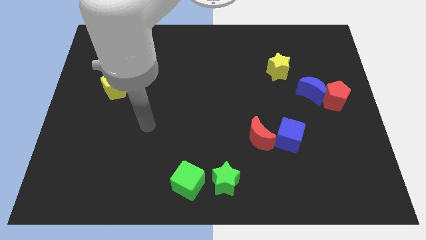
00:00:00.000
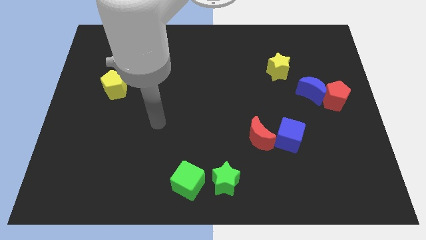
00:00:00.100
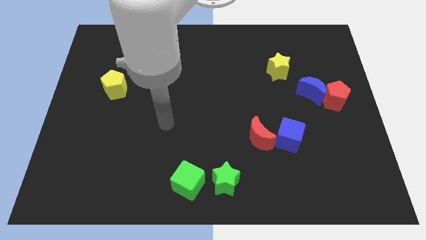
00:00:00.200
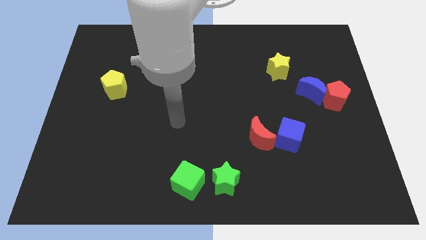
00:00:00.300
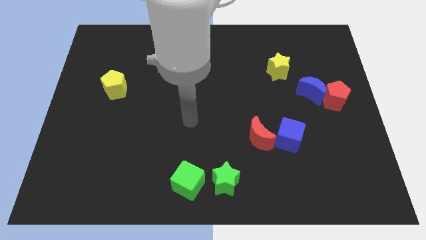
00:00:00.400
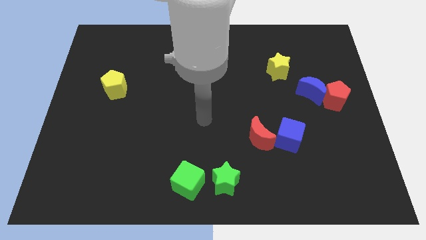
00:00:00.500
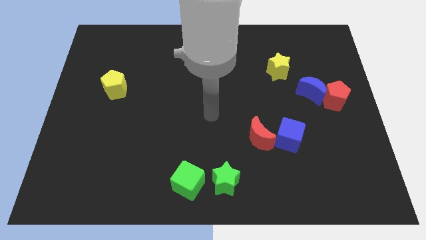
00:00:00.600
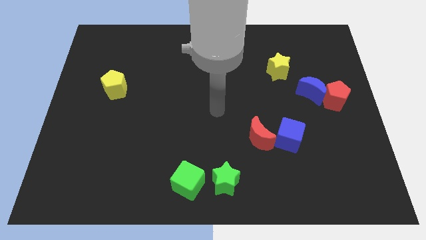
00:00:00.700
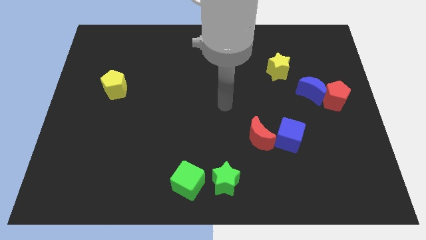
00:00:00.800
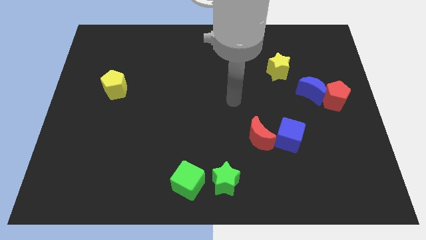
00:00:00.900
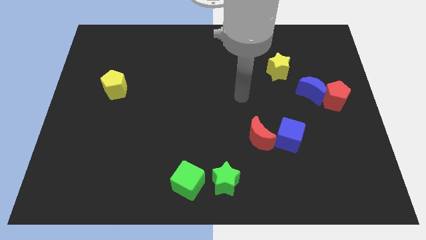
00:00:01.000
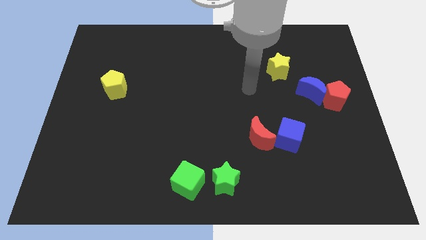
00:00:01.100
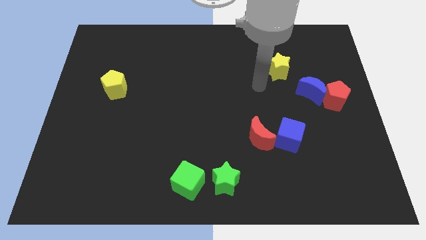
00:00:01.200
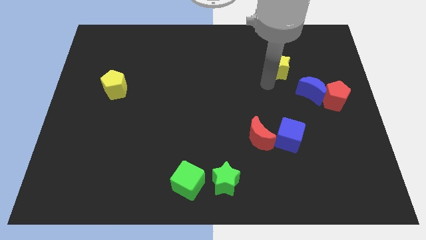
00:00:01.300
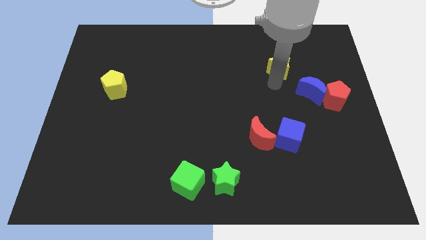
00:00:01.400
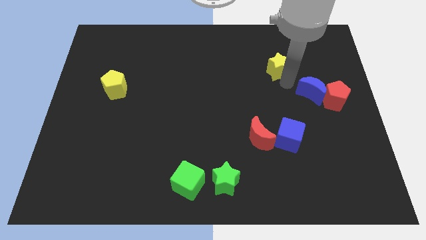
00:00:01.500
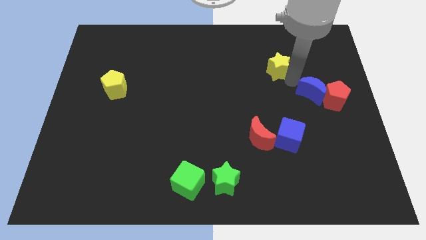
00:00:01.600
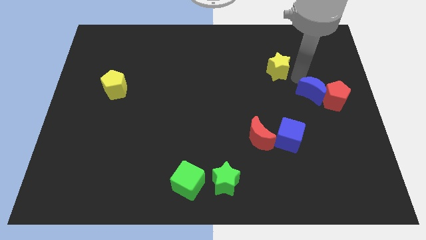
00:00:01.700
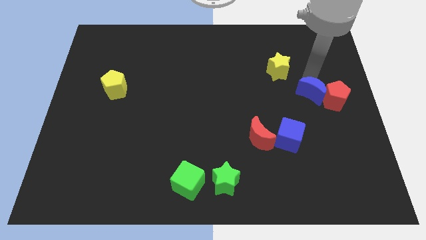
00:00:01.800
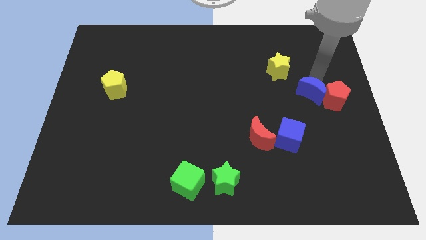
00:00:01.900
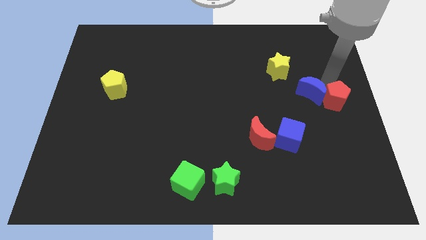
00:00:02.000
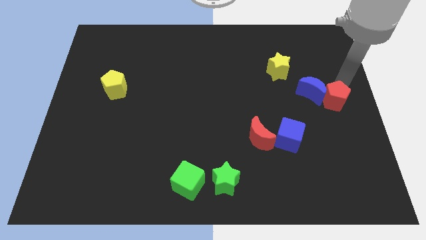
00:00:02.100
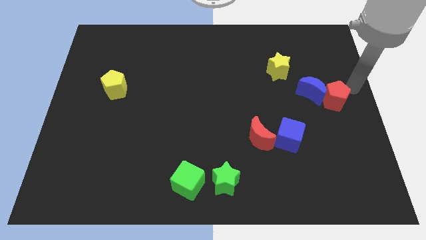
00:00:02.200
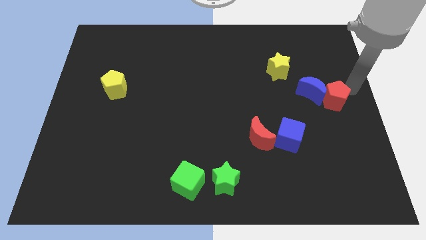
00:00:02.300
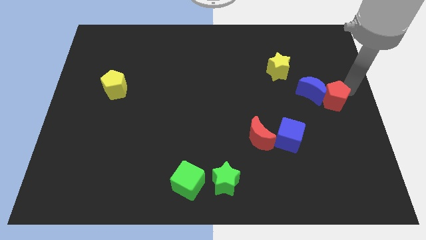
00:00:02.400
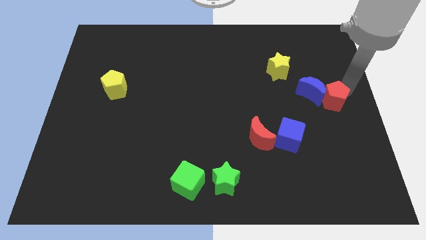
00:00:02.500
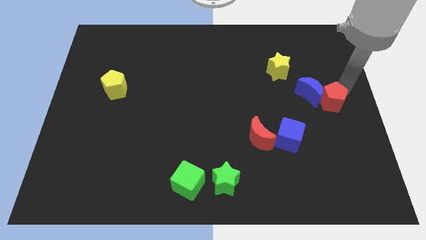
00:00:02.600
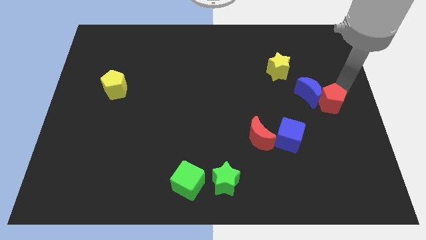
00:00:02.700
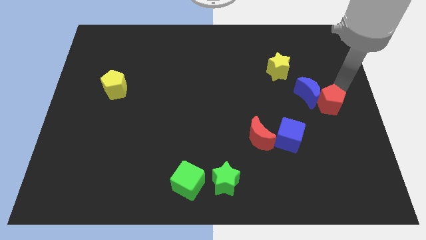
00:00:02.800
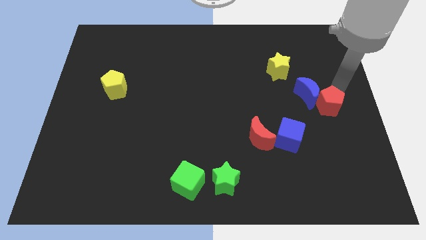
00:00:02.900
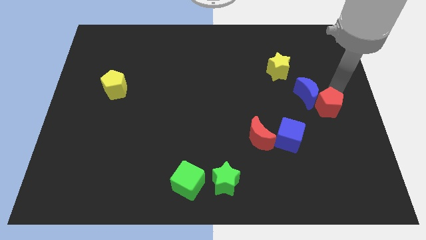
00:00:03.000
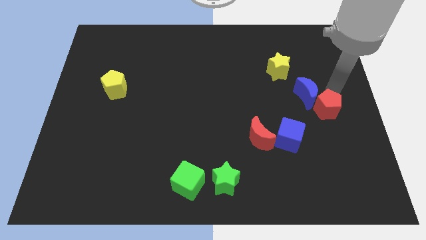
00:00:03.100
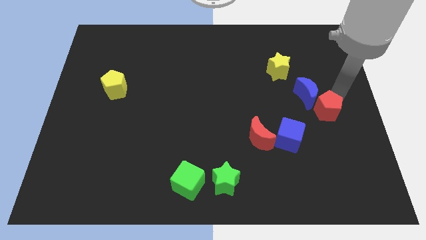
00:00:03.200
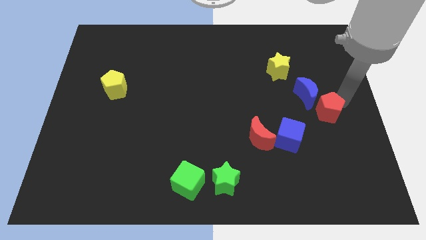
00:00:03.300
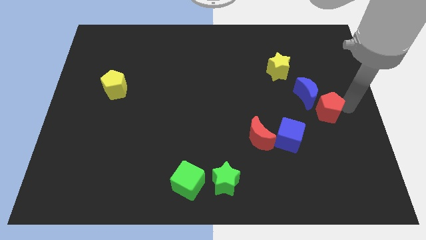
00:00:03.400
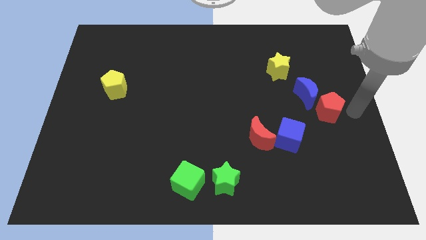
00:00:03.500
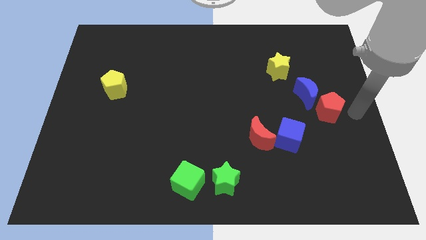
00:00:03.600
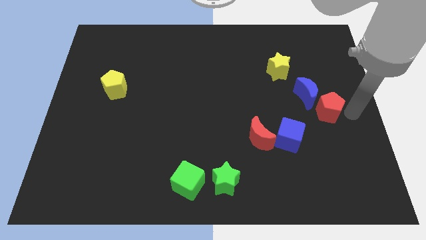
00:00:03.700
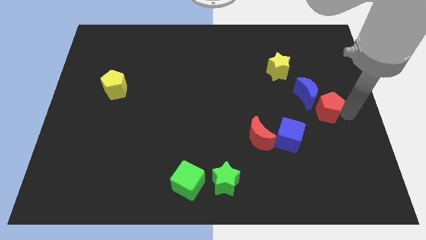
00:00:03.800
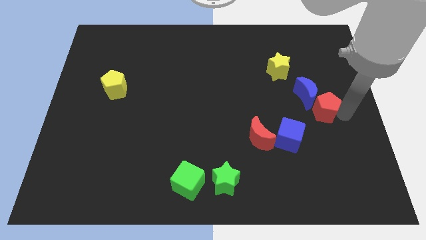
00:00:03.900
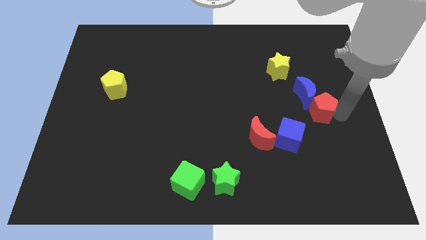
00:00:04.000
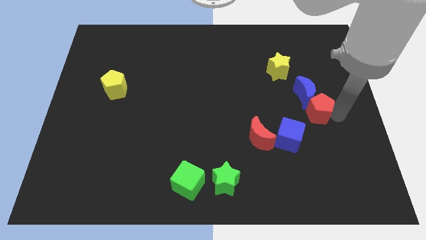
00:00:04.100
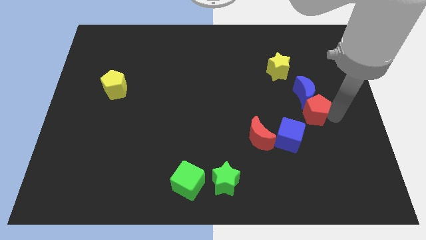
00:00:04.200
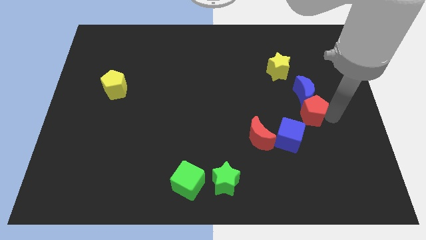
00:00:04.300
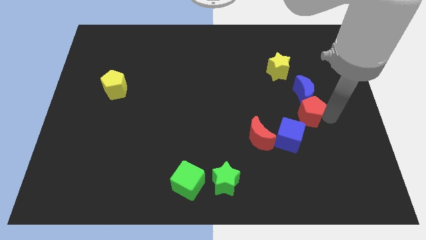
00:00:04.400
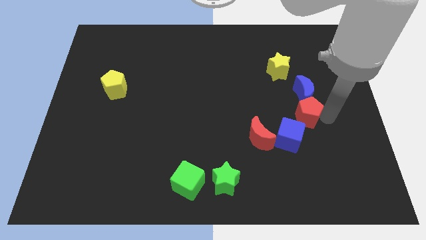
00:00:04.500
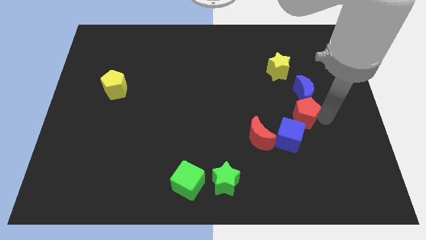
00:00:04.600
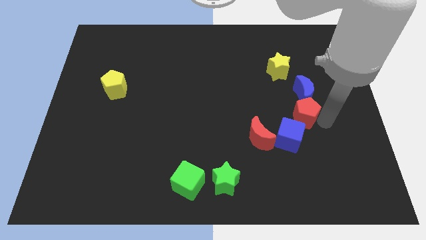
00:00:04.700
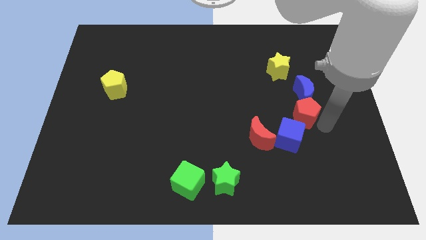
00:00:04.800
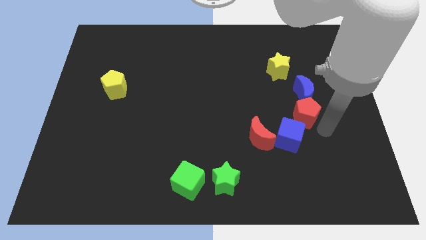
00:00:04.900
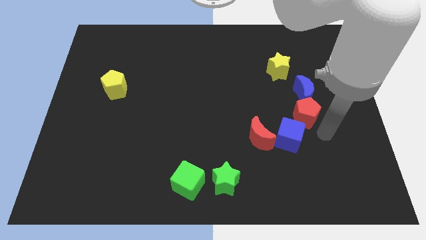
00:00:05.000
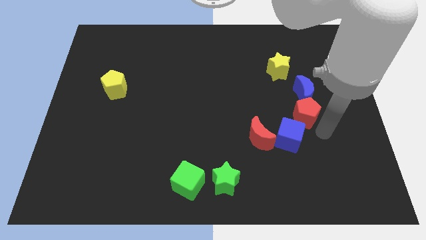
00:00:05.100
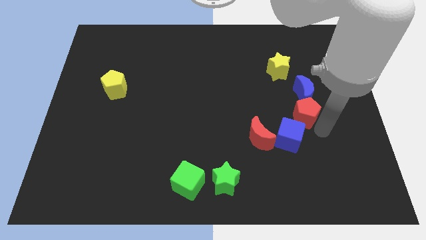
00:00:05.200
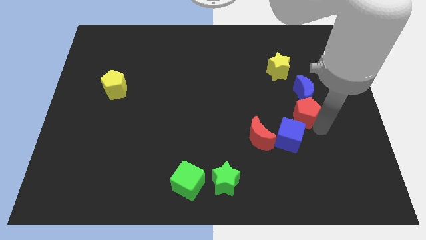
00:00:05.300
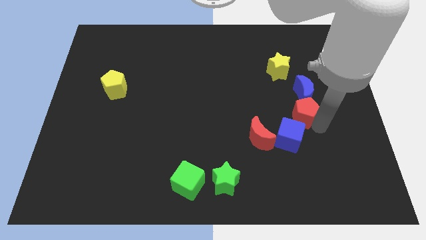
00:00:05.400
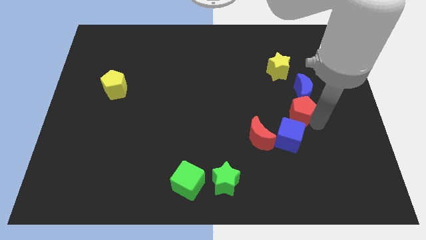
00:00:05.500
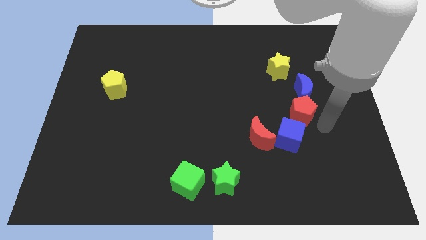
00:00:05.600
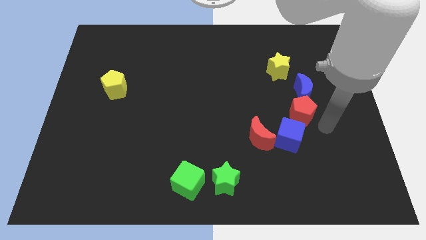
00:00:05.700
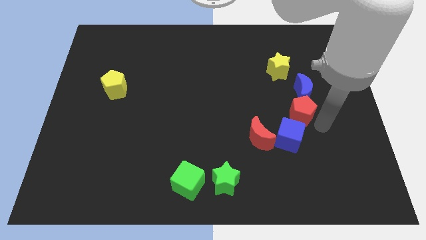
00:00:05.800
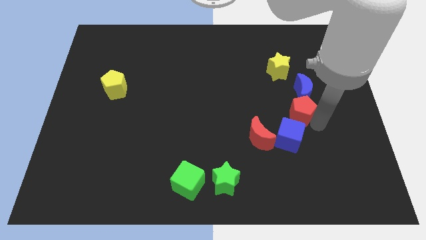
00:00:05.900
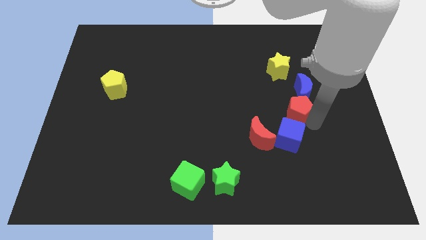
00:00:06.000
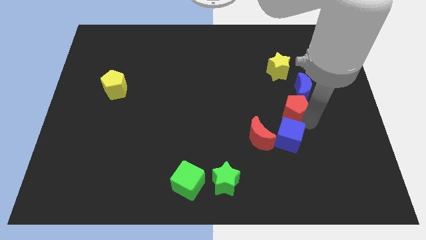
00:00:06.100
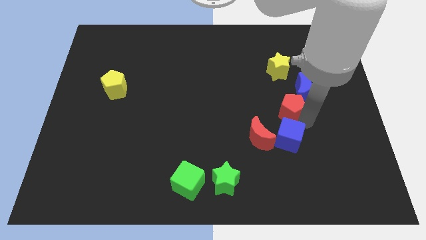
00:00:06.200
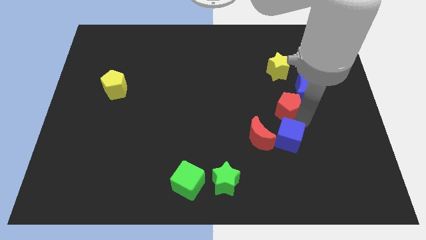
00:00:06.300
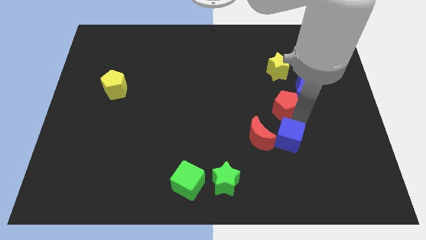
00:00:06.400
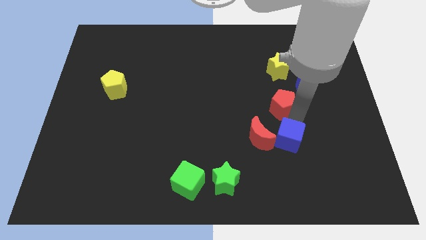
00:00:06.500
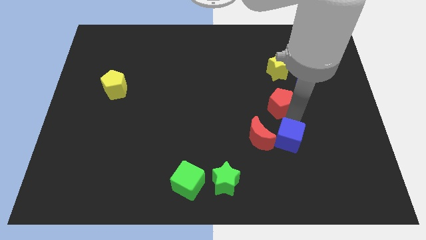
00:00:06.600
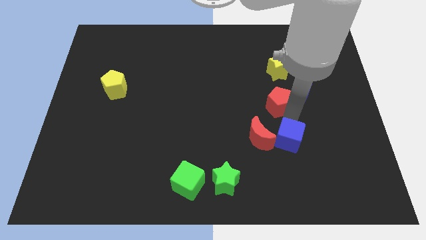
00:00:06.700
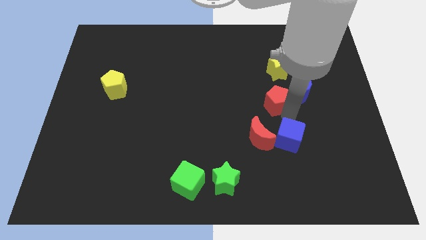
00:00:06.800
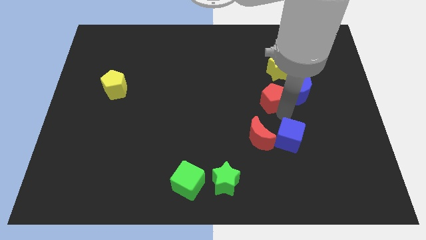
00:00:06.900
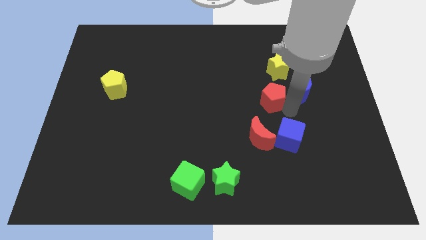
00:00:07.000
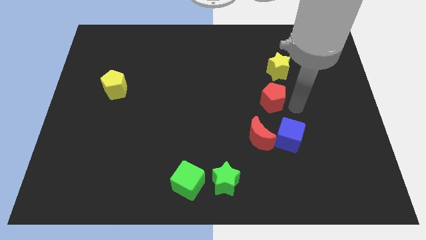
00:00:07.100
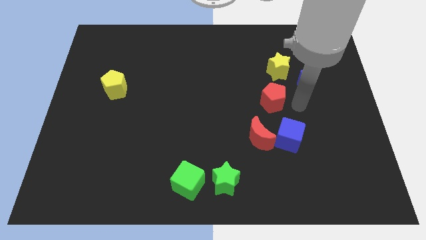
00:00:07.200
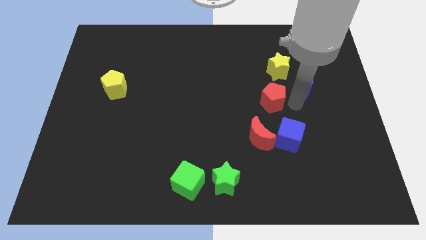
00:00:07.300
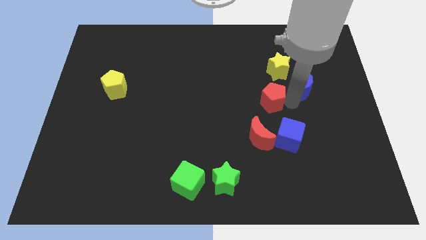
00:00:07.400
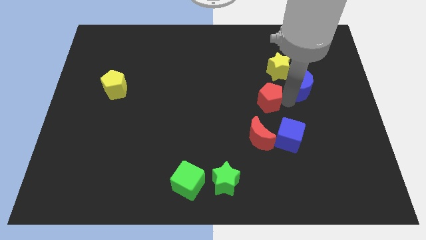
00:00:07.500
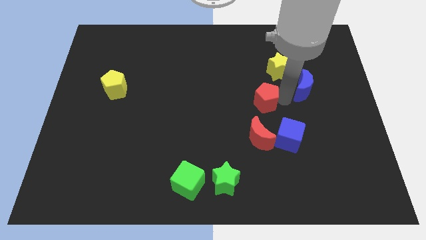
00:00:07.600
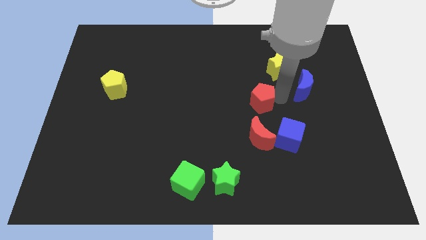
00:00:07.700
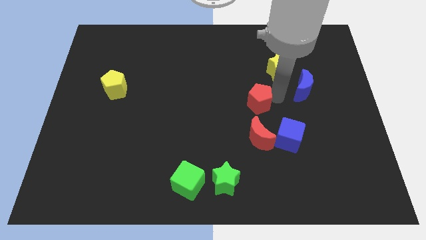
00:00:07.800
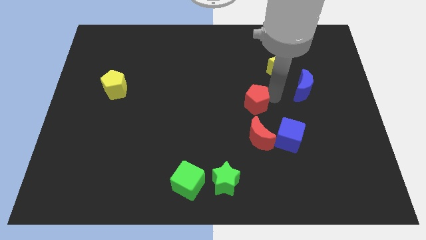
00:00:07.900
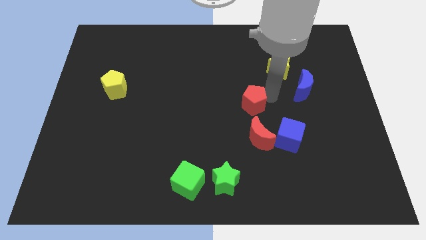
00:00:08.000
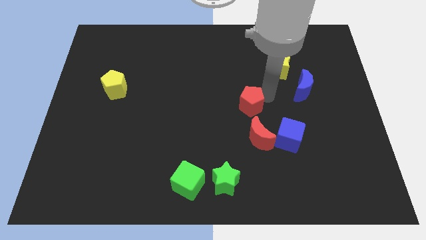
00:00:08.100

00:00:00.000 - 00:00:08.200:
push the red pentagon to the left
